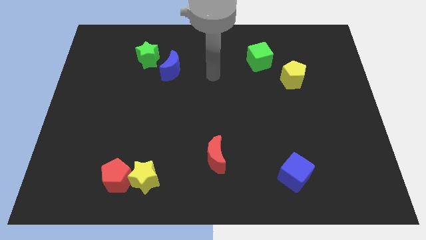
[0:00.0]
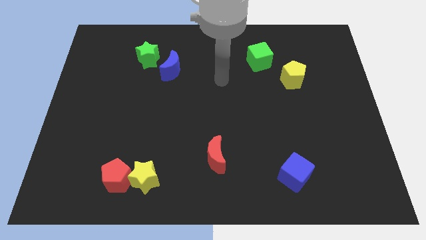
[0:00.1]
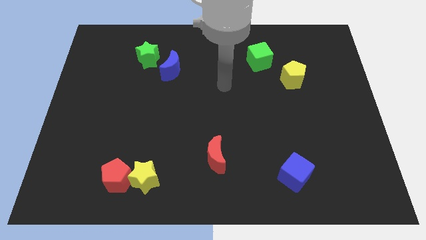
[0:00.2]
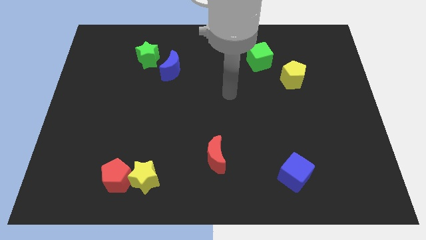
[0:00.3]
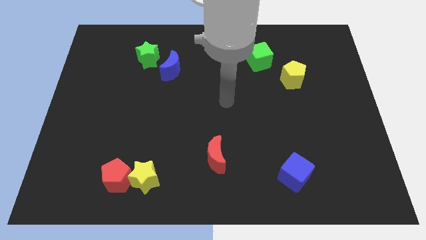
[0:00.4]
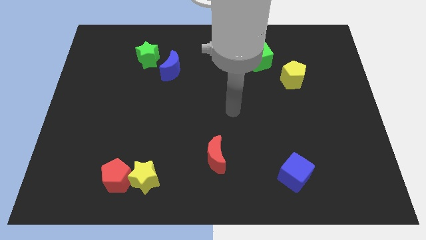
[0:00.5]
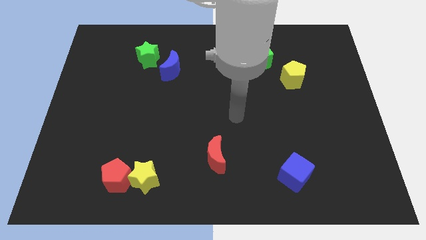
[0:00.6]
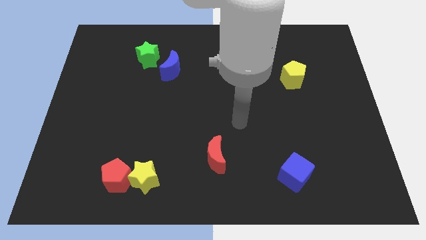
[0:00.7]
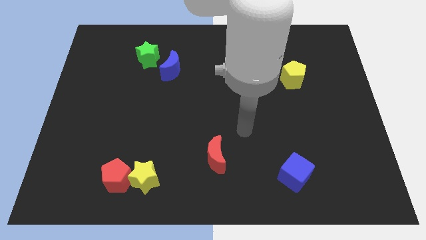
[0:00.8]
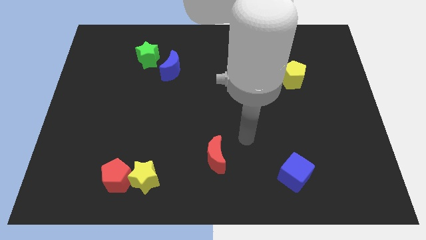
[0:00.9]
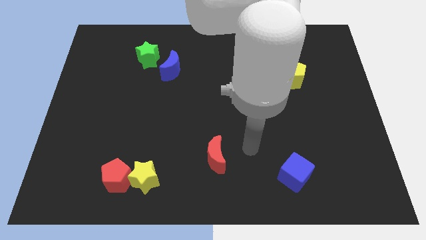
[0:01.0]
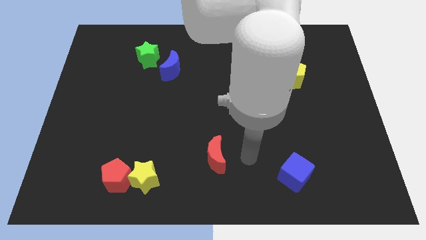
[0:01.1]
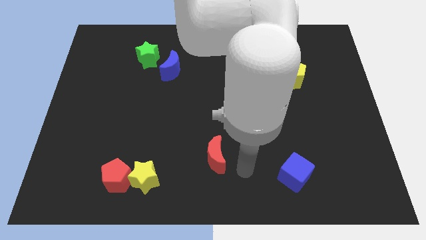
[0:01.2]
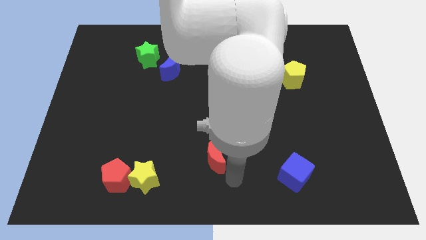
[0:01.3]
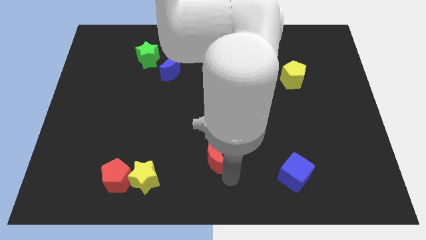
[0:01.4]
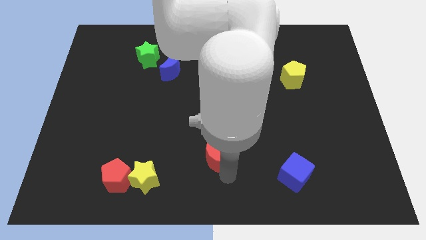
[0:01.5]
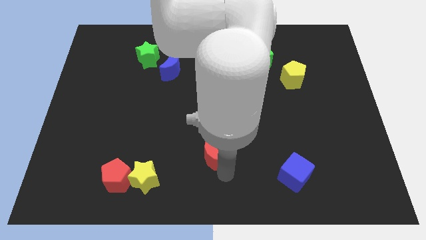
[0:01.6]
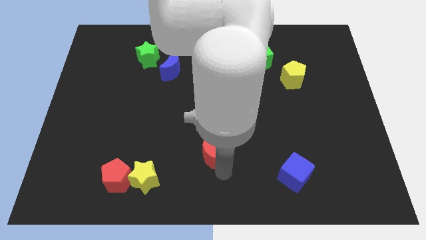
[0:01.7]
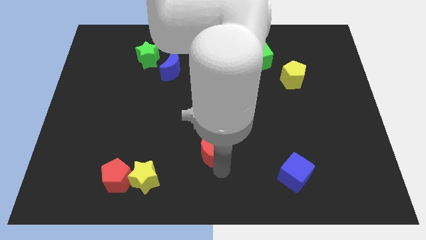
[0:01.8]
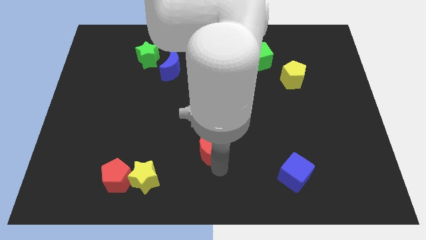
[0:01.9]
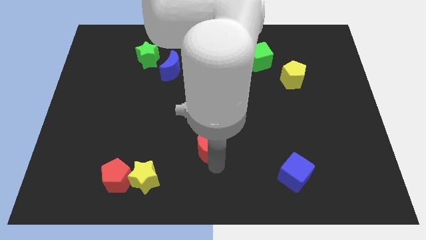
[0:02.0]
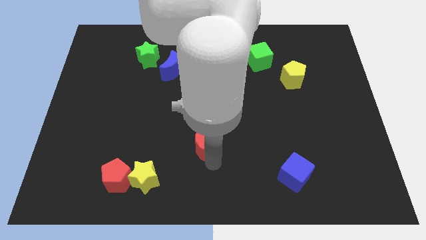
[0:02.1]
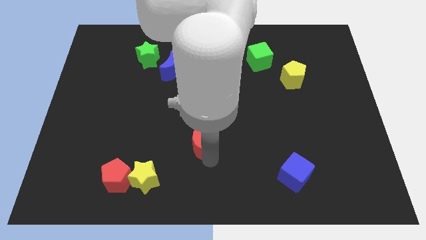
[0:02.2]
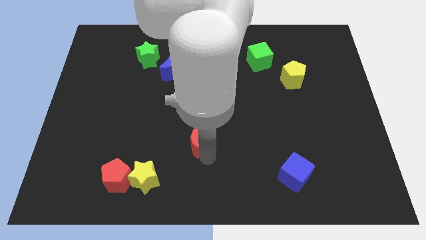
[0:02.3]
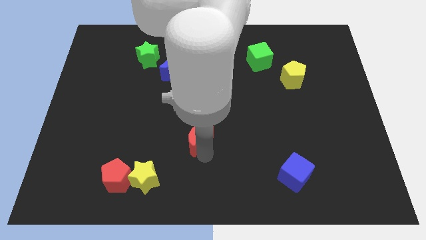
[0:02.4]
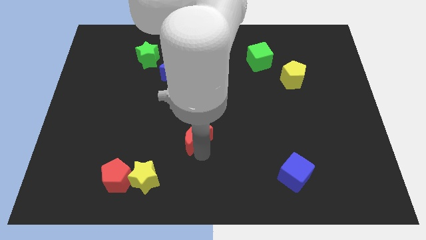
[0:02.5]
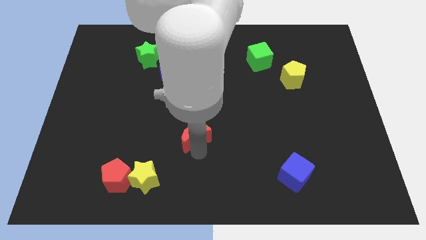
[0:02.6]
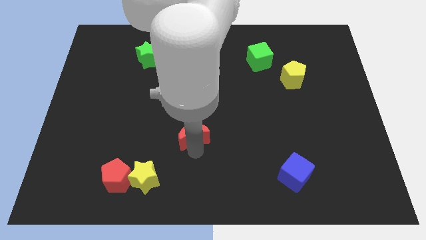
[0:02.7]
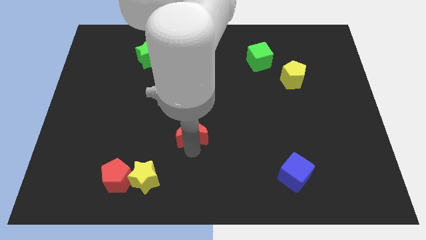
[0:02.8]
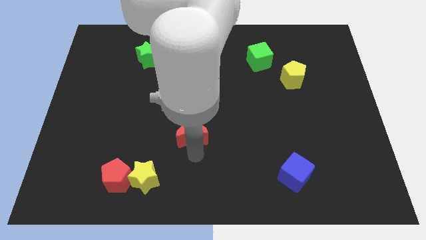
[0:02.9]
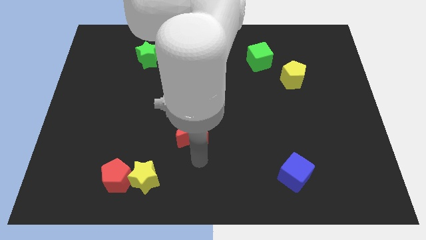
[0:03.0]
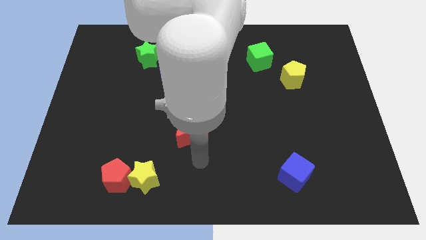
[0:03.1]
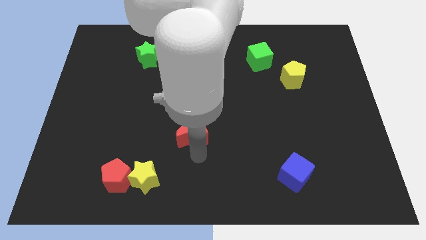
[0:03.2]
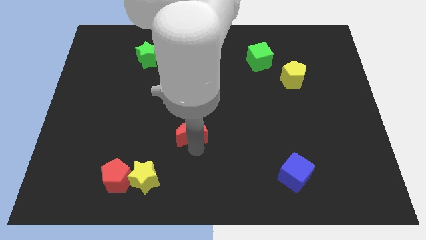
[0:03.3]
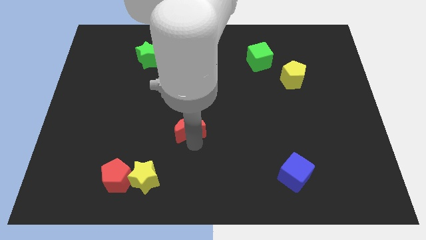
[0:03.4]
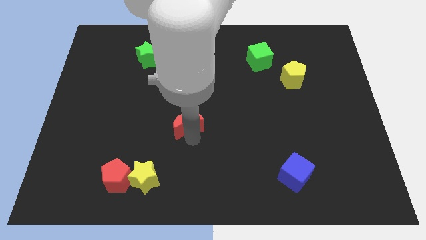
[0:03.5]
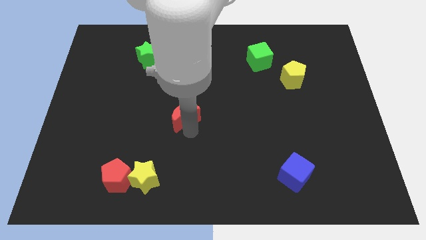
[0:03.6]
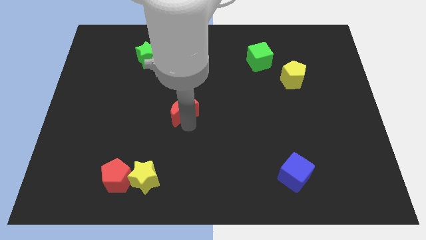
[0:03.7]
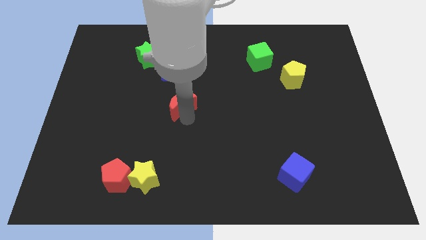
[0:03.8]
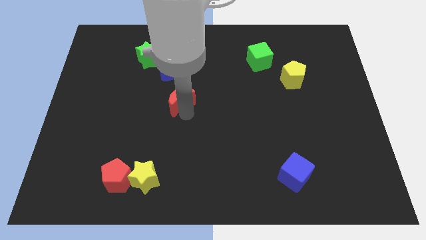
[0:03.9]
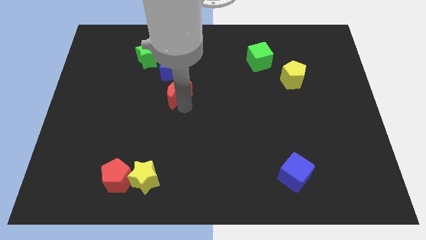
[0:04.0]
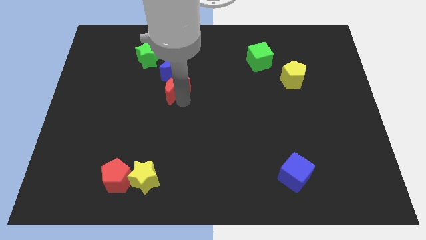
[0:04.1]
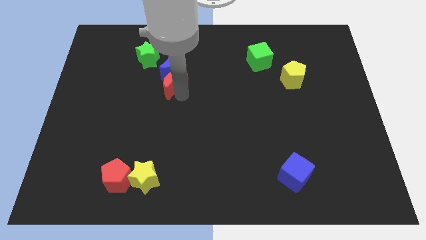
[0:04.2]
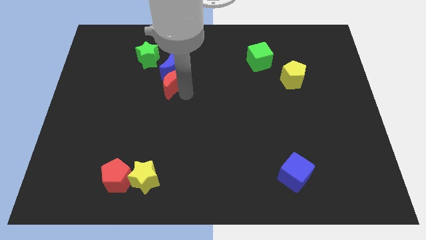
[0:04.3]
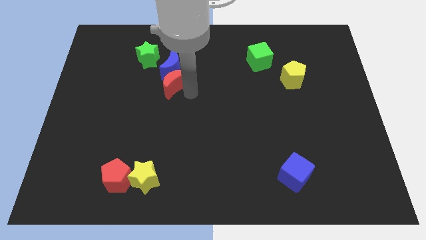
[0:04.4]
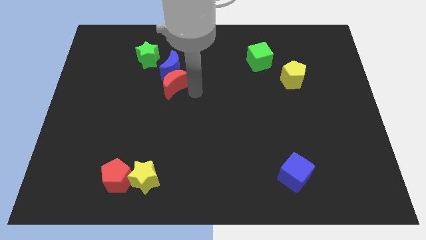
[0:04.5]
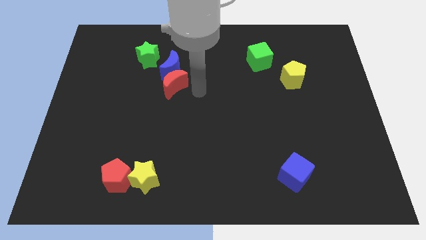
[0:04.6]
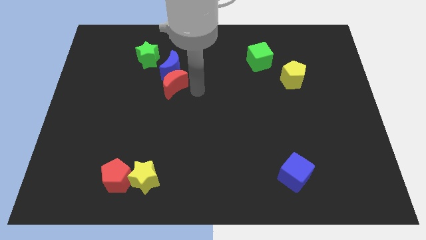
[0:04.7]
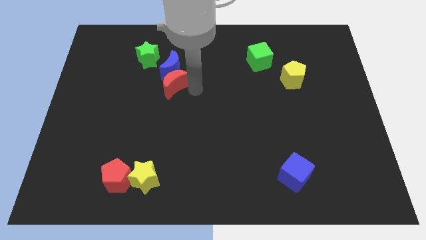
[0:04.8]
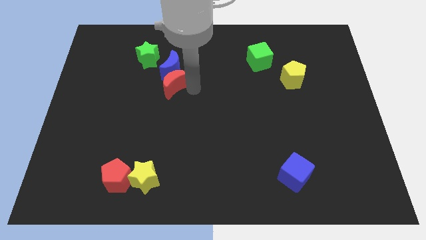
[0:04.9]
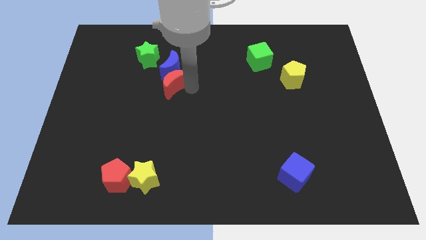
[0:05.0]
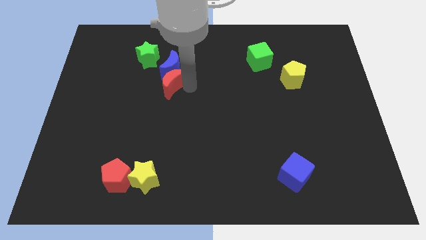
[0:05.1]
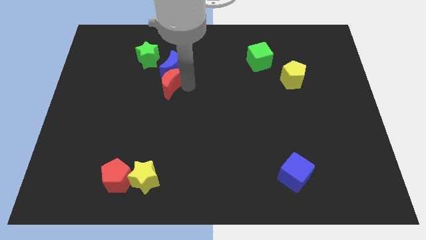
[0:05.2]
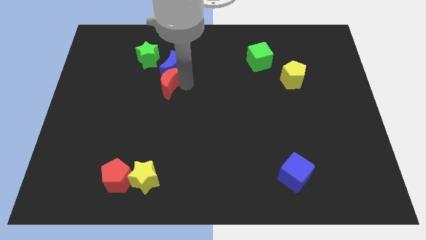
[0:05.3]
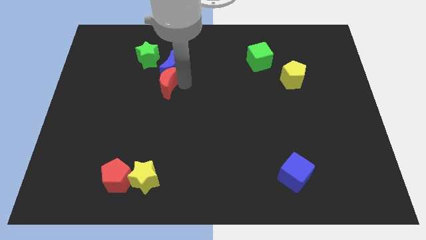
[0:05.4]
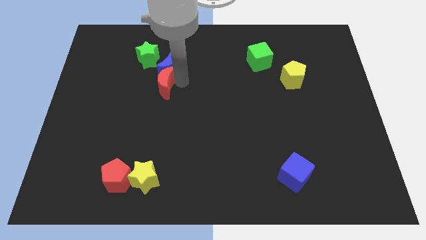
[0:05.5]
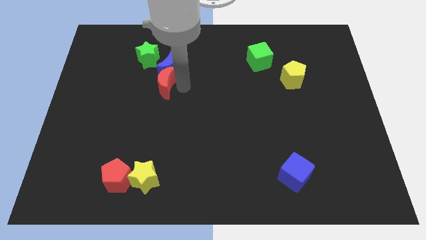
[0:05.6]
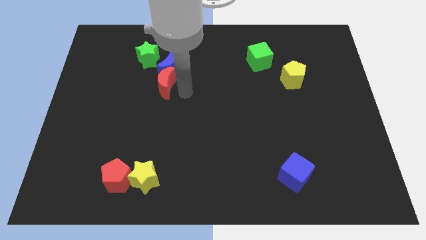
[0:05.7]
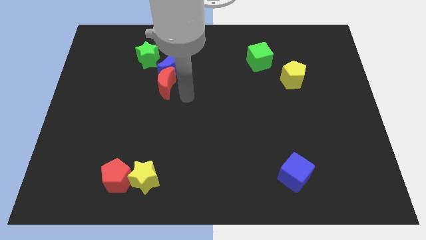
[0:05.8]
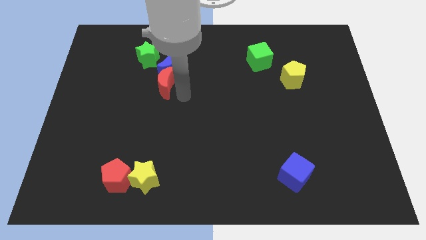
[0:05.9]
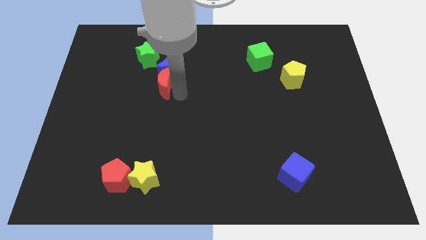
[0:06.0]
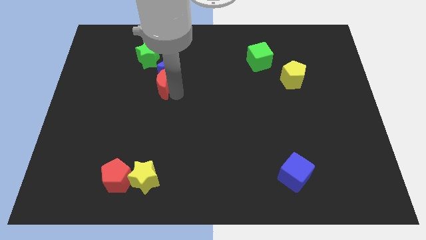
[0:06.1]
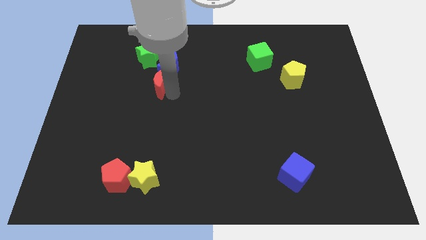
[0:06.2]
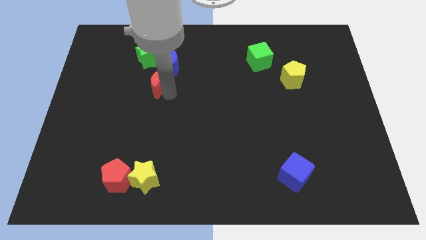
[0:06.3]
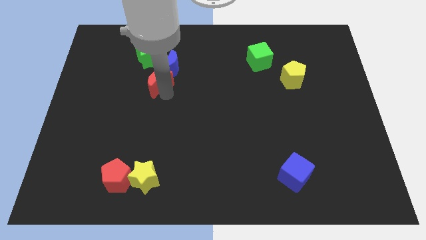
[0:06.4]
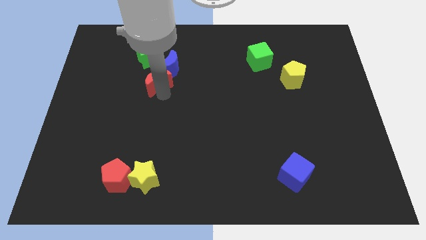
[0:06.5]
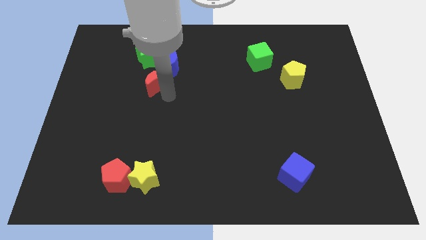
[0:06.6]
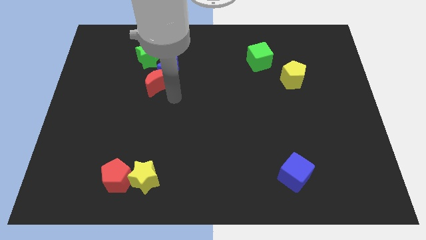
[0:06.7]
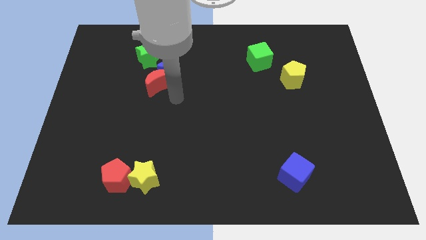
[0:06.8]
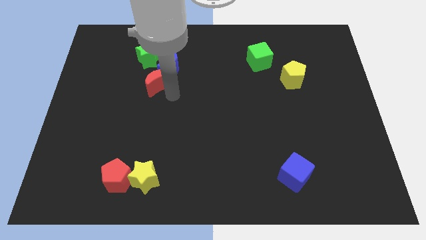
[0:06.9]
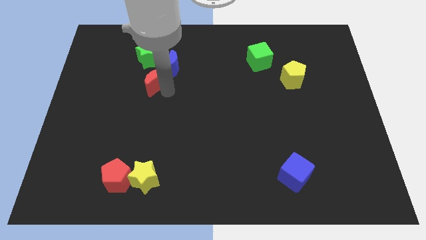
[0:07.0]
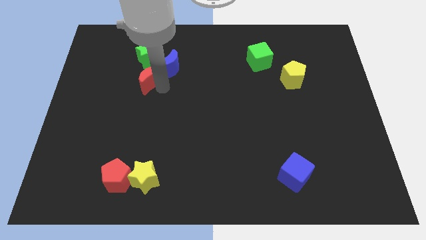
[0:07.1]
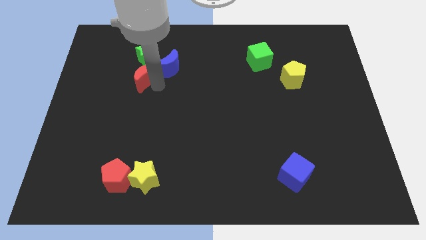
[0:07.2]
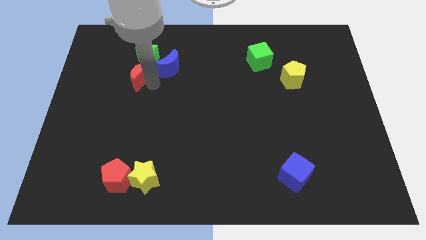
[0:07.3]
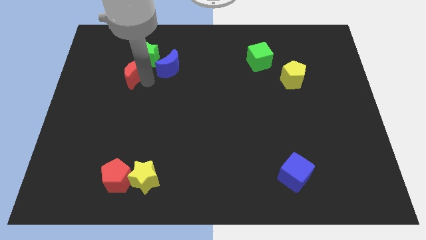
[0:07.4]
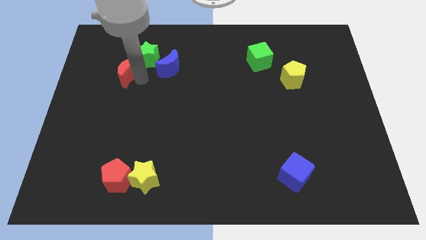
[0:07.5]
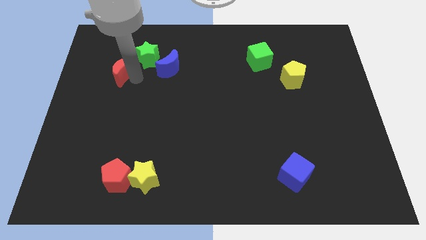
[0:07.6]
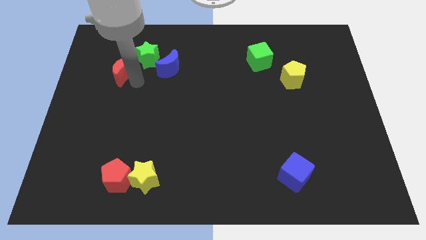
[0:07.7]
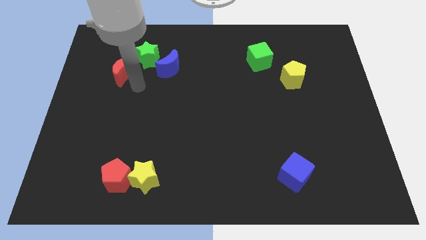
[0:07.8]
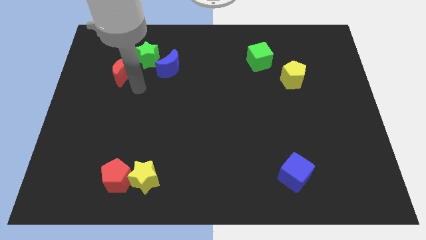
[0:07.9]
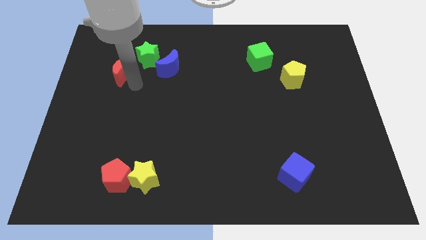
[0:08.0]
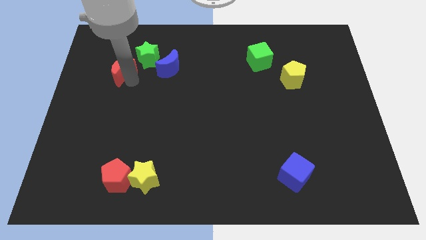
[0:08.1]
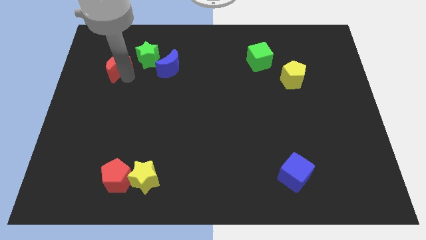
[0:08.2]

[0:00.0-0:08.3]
push the red moon just left of the green star
